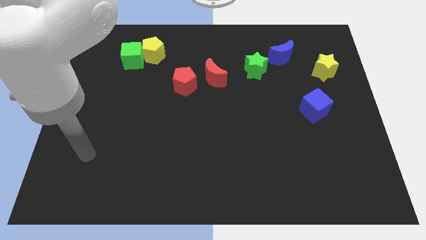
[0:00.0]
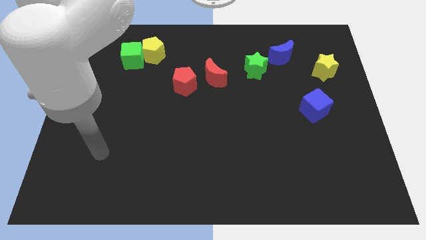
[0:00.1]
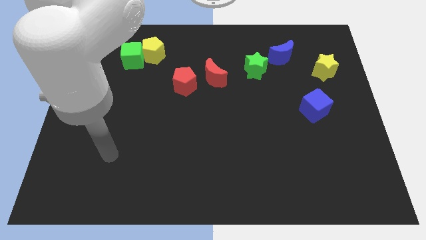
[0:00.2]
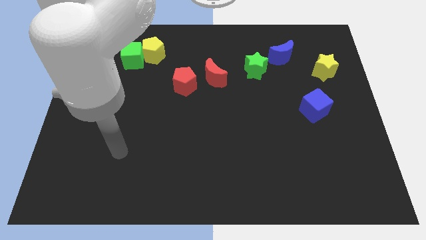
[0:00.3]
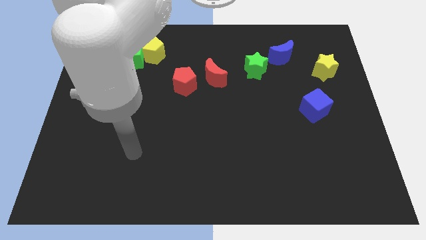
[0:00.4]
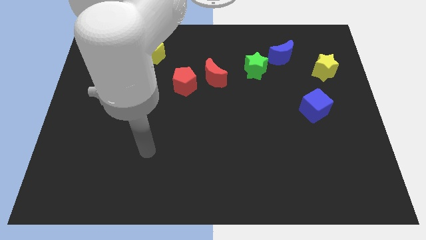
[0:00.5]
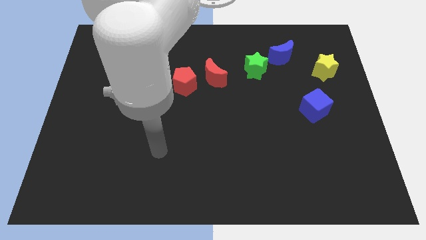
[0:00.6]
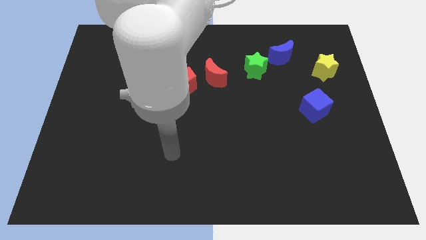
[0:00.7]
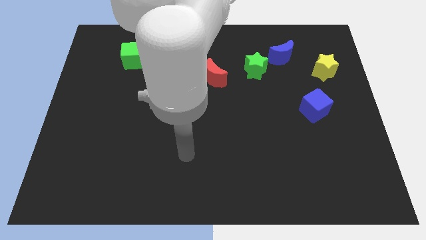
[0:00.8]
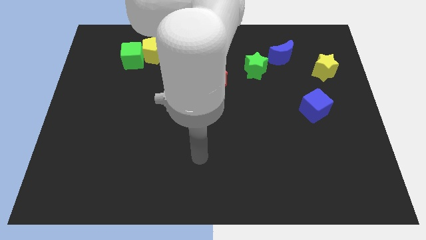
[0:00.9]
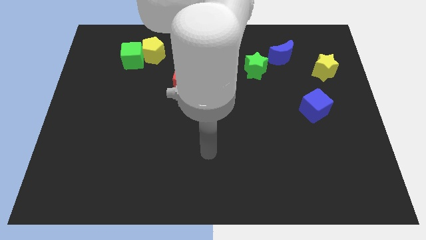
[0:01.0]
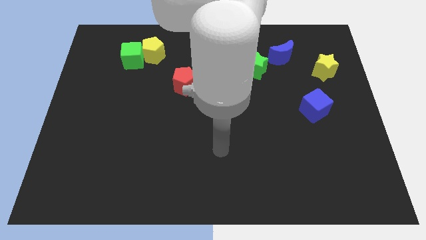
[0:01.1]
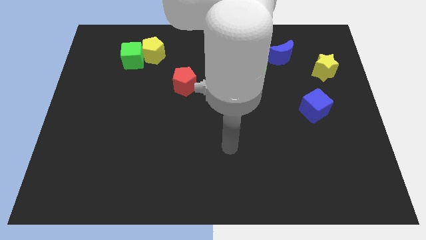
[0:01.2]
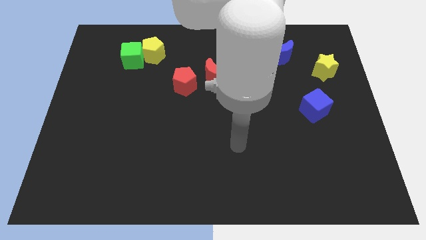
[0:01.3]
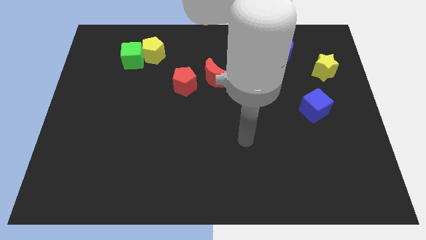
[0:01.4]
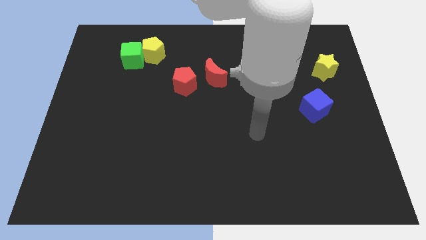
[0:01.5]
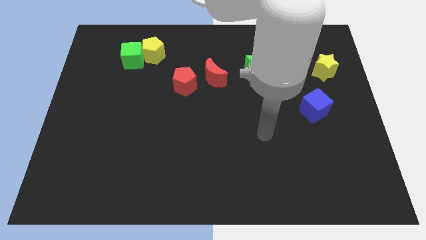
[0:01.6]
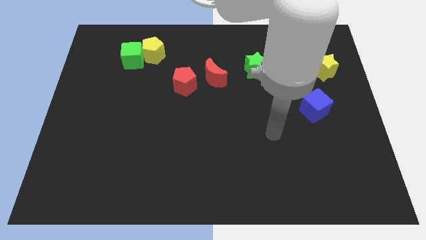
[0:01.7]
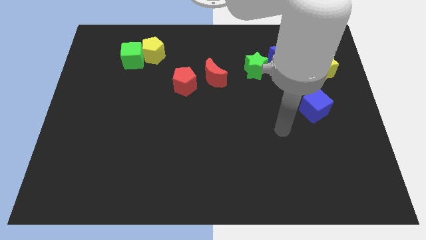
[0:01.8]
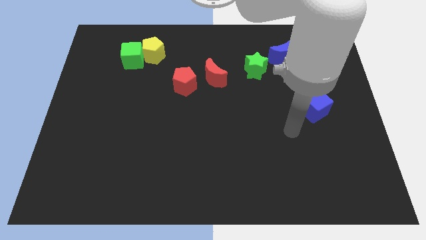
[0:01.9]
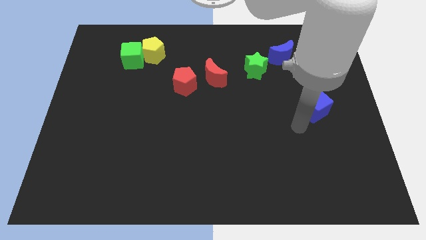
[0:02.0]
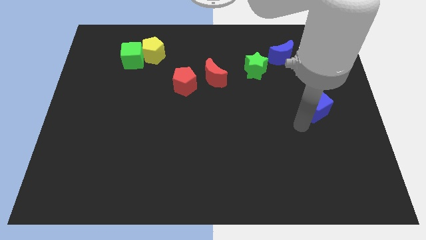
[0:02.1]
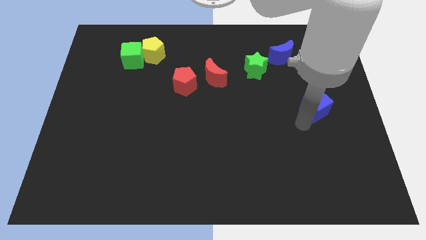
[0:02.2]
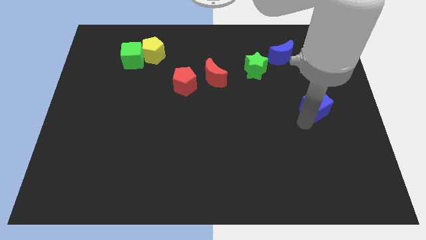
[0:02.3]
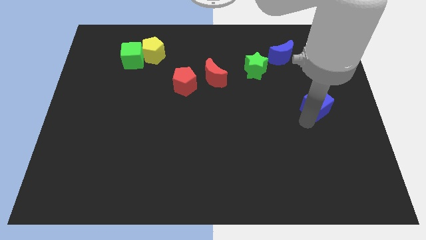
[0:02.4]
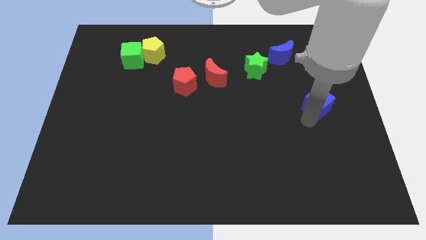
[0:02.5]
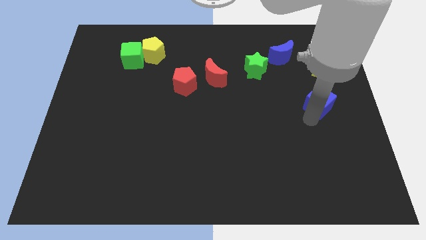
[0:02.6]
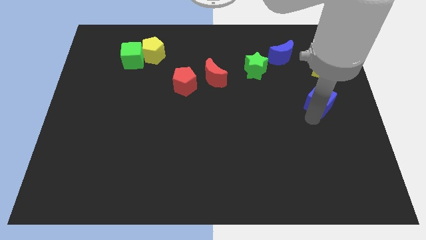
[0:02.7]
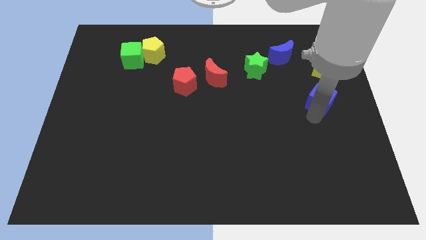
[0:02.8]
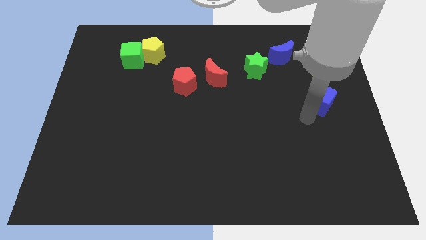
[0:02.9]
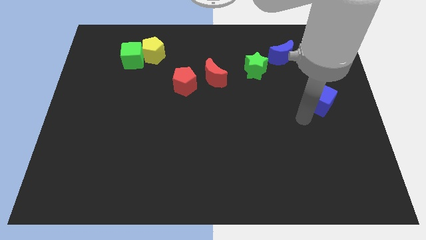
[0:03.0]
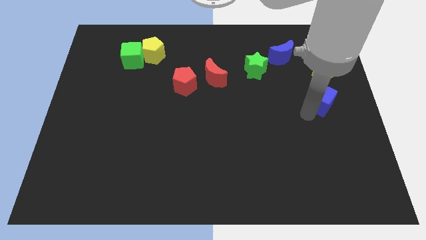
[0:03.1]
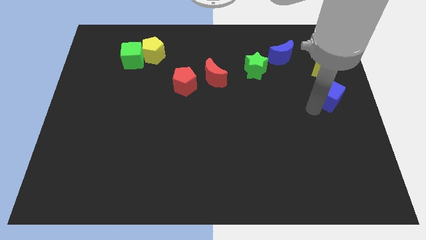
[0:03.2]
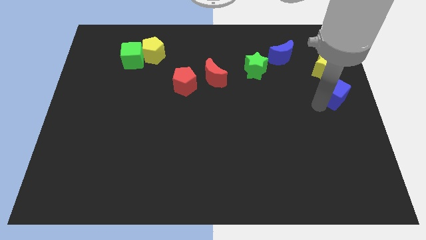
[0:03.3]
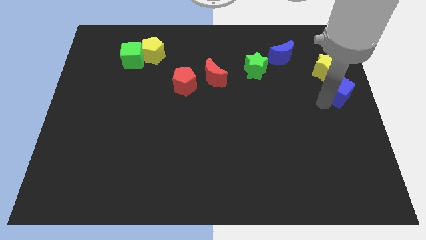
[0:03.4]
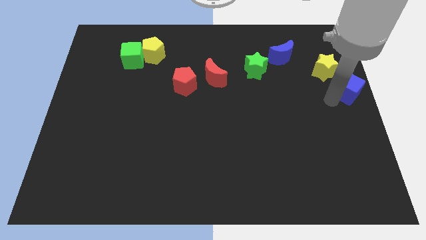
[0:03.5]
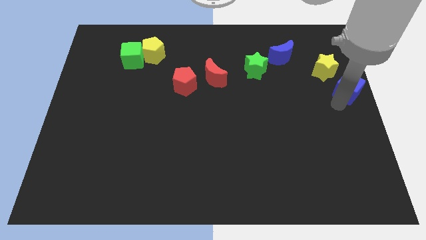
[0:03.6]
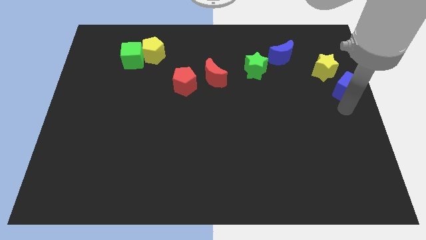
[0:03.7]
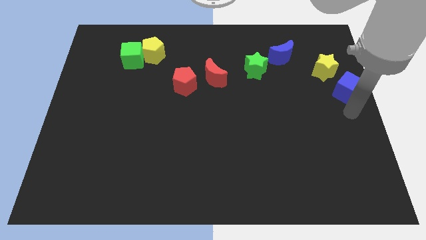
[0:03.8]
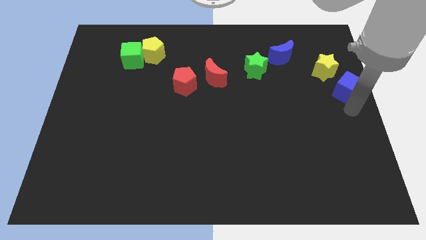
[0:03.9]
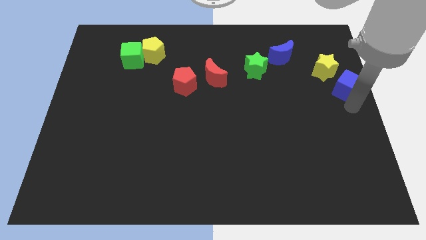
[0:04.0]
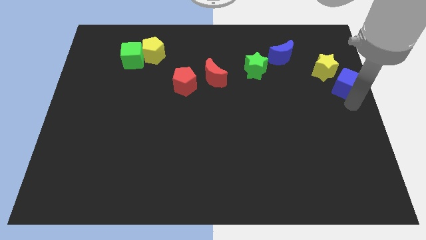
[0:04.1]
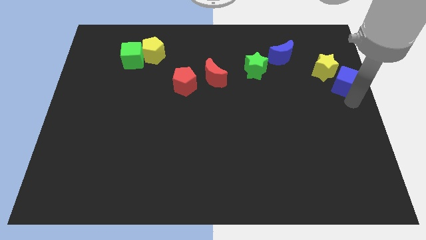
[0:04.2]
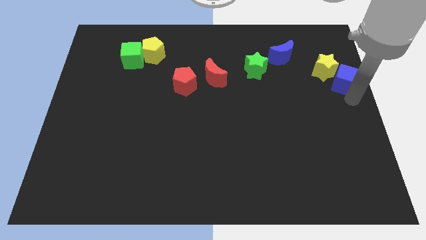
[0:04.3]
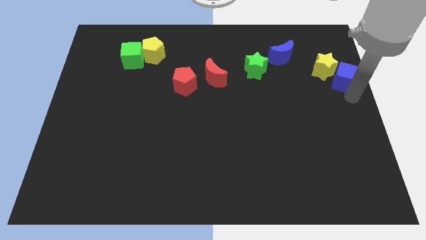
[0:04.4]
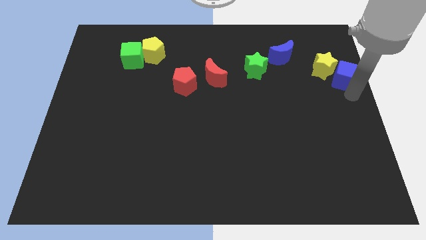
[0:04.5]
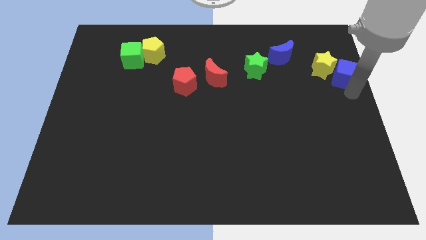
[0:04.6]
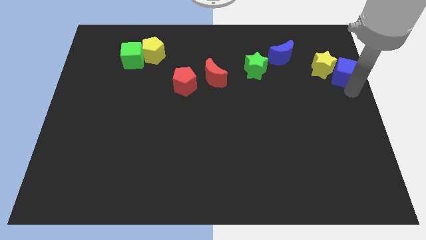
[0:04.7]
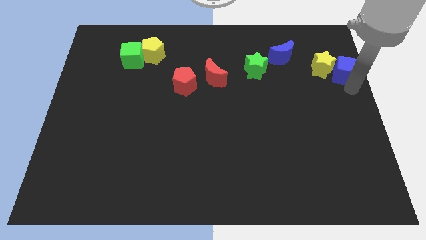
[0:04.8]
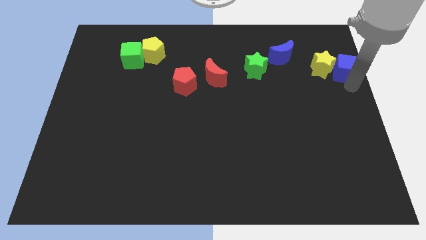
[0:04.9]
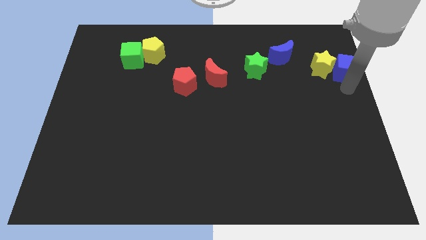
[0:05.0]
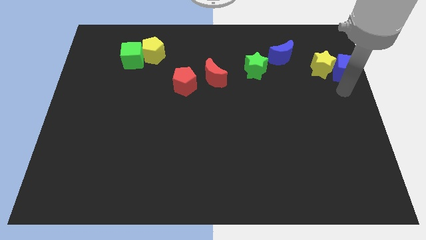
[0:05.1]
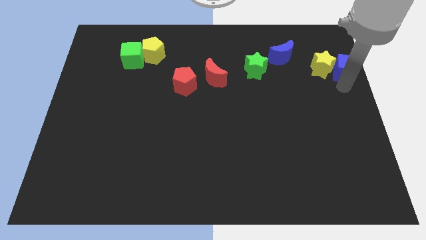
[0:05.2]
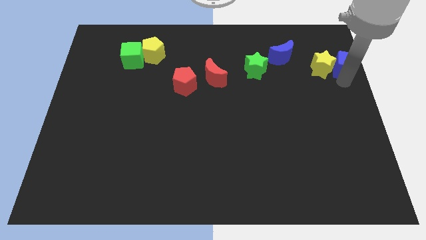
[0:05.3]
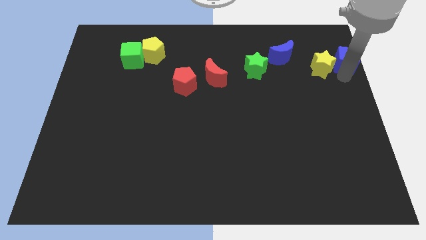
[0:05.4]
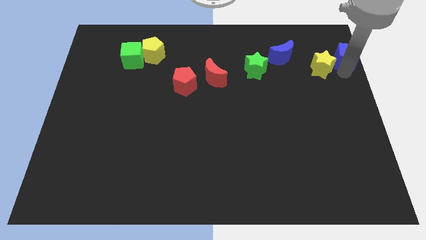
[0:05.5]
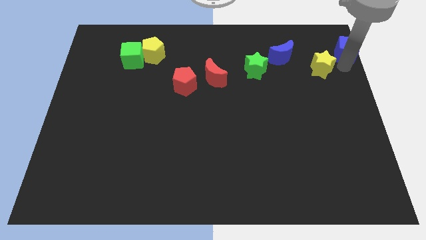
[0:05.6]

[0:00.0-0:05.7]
put the blue cube to the top right of the board
